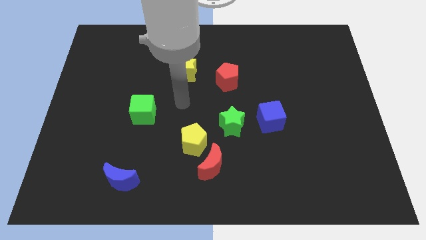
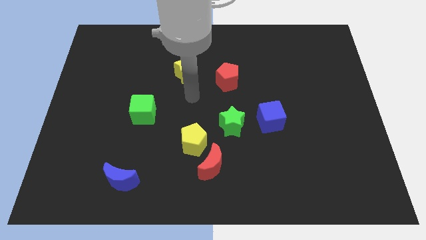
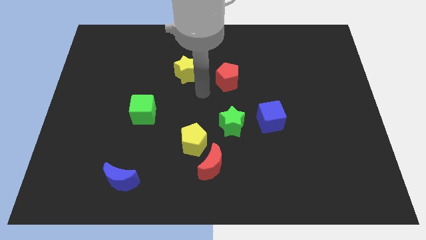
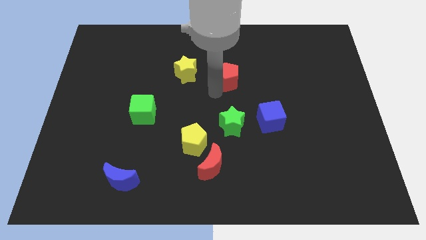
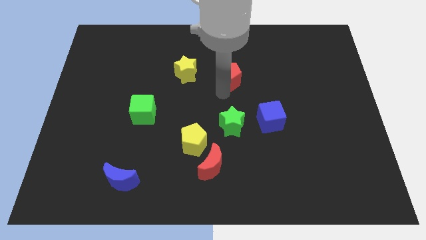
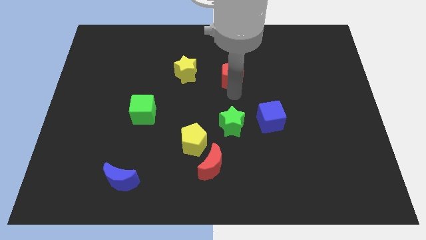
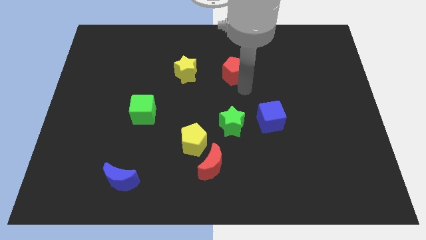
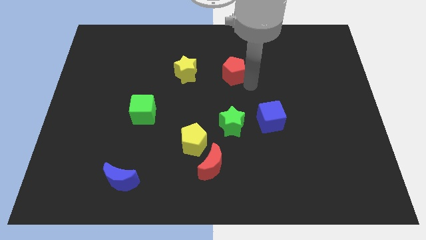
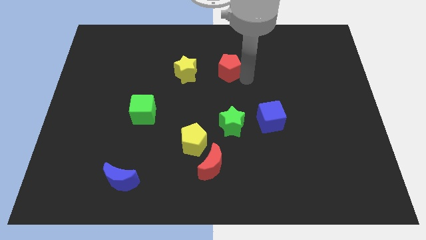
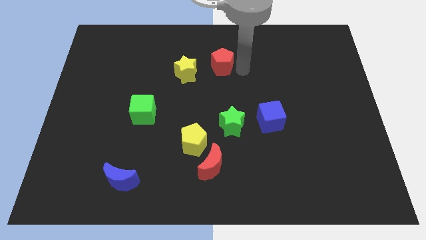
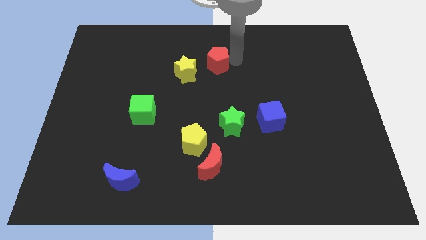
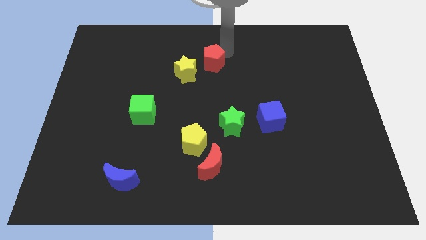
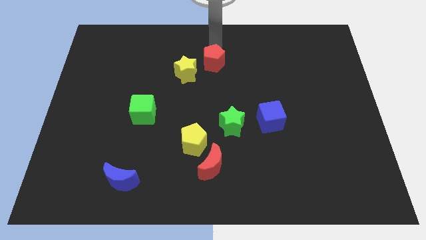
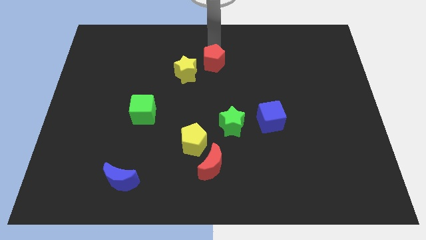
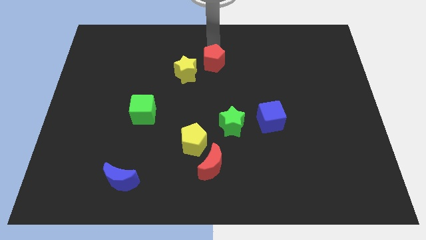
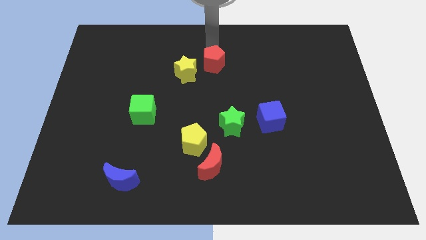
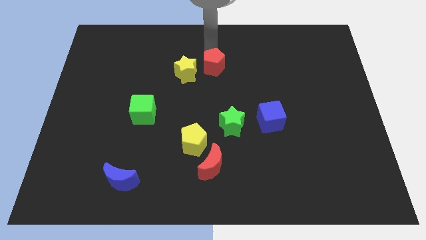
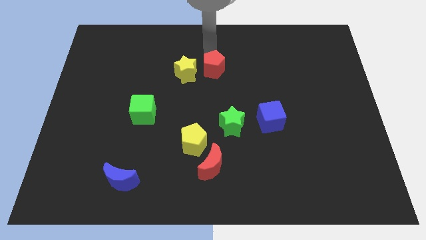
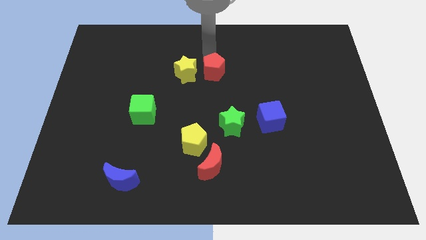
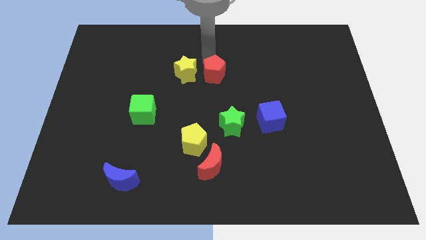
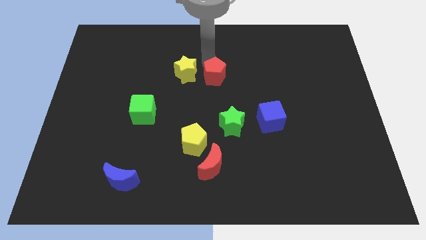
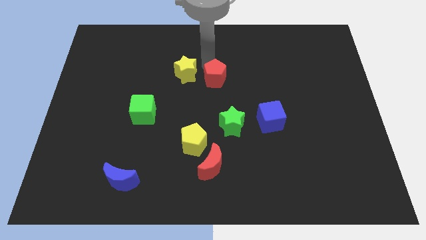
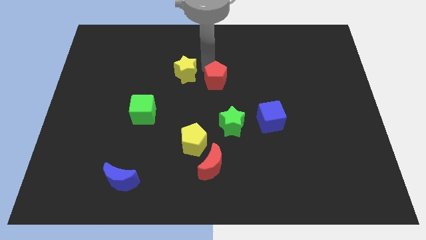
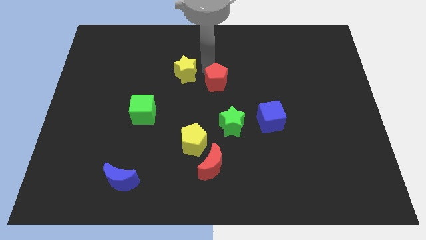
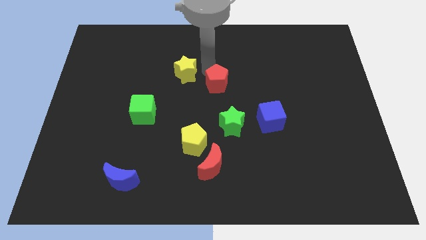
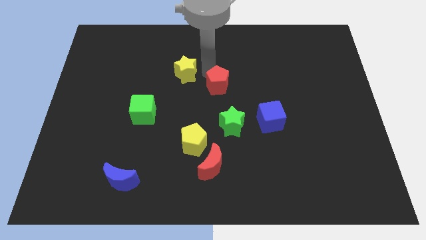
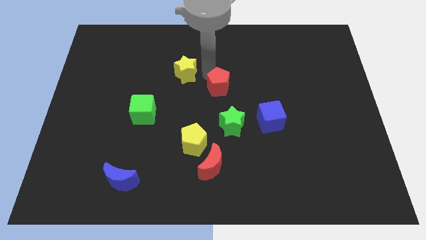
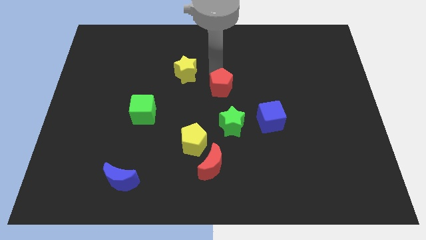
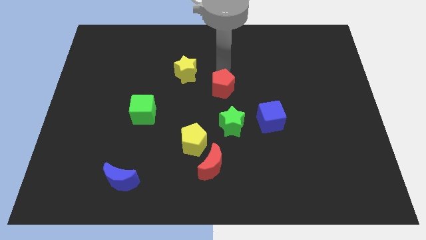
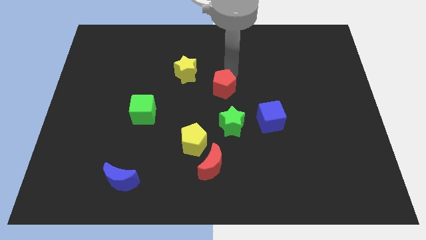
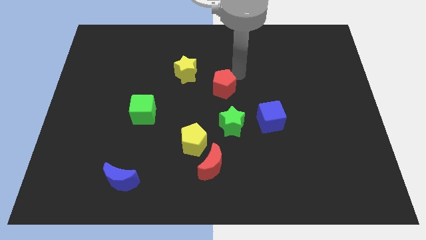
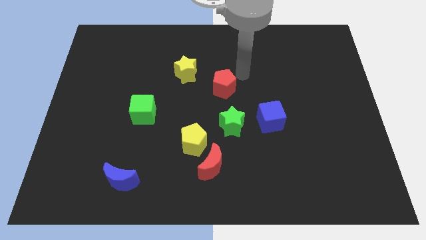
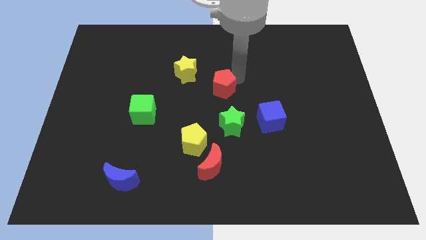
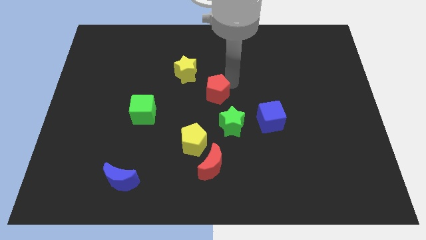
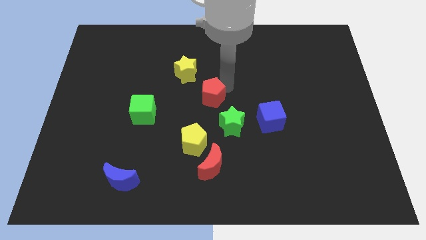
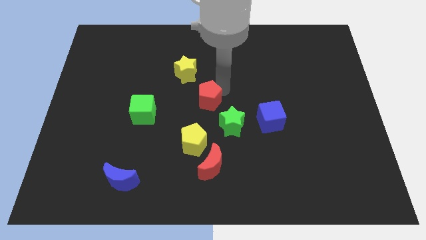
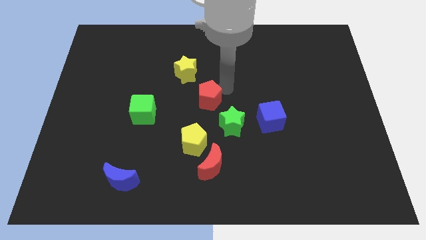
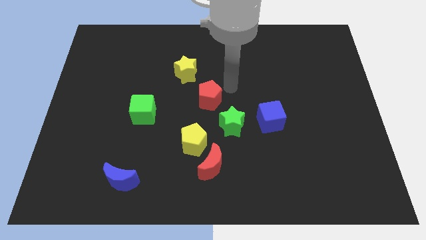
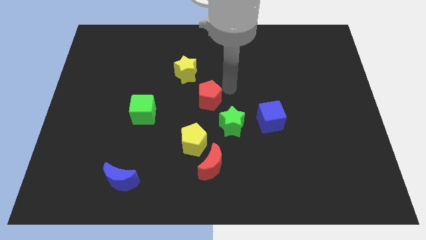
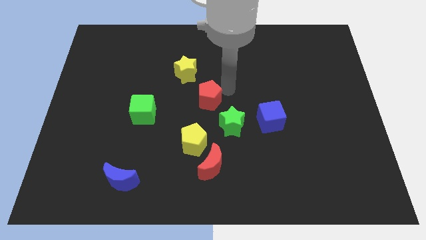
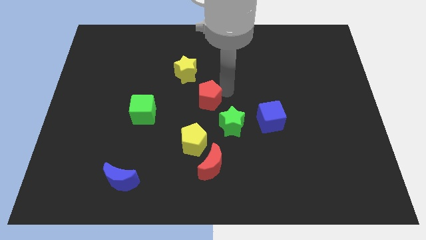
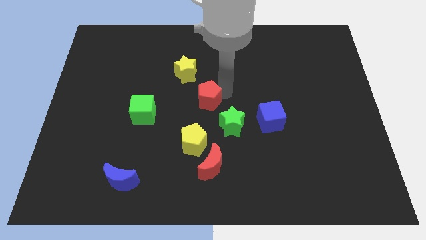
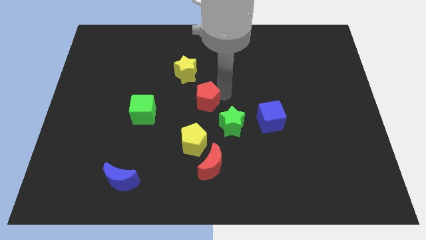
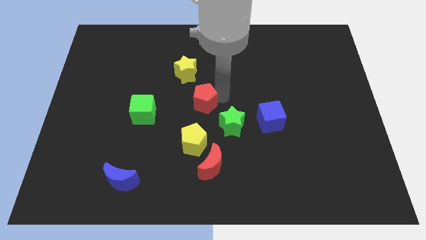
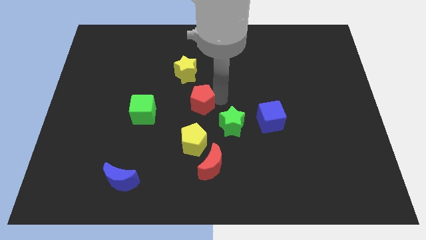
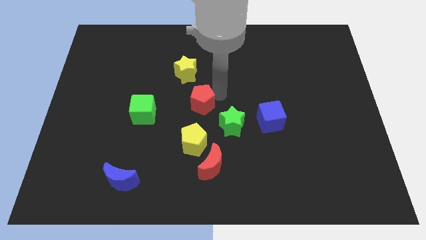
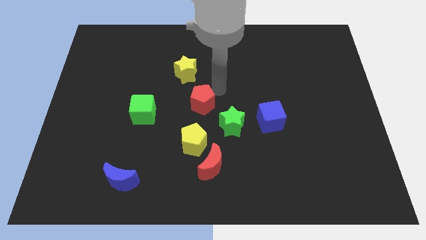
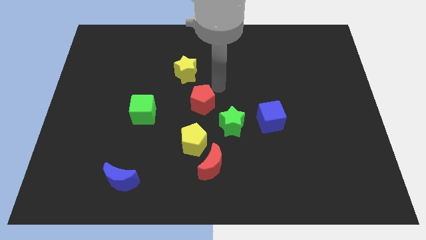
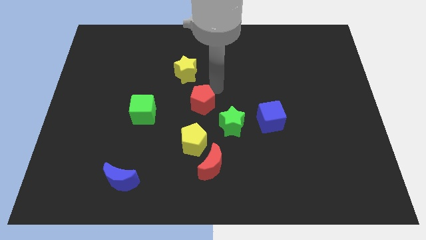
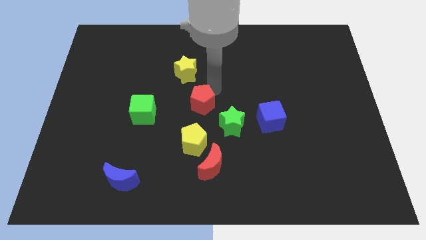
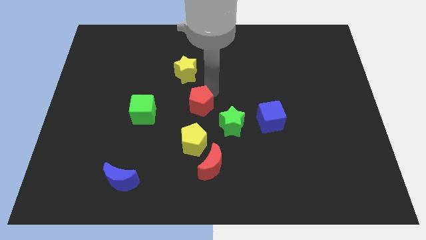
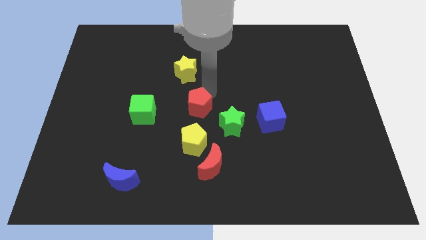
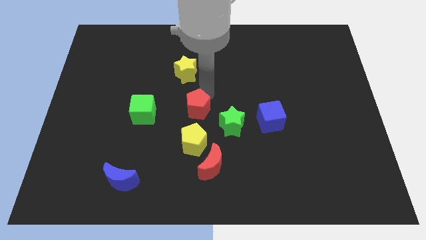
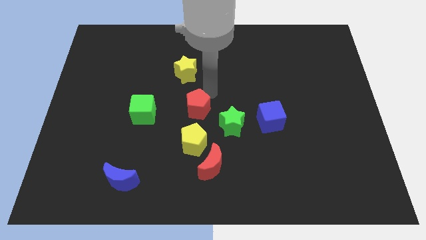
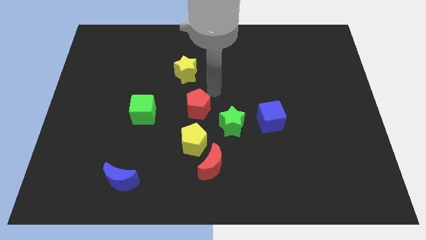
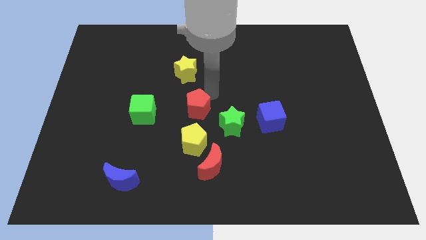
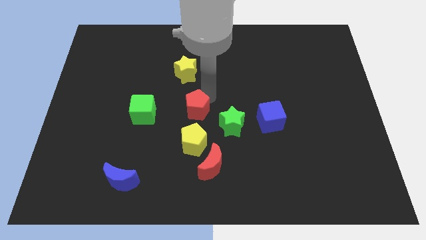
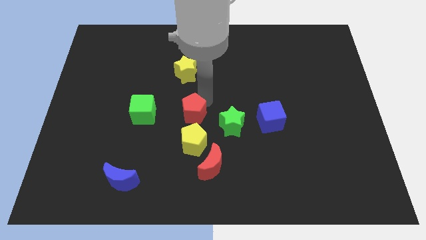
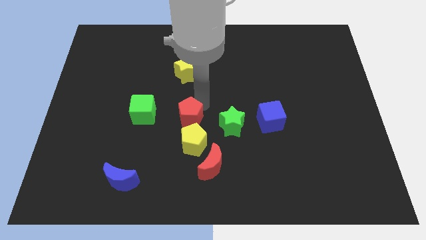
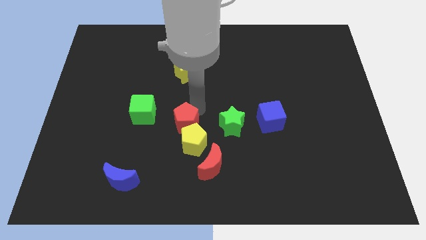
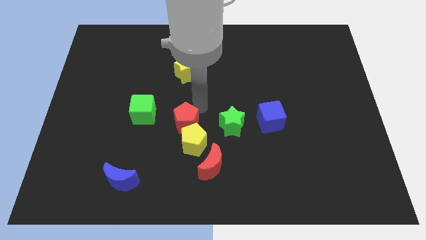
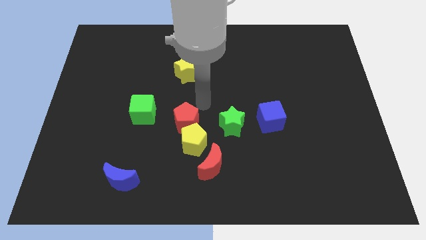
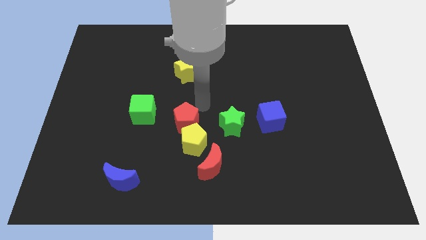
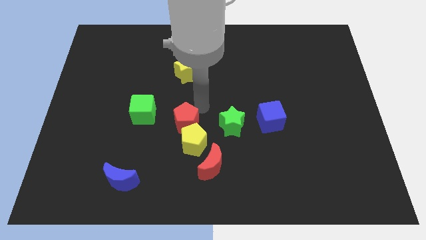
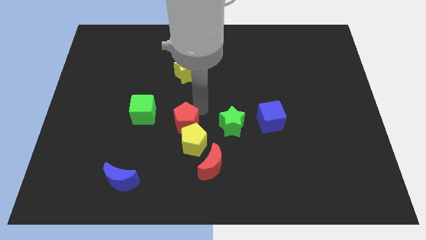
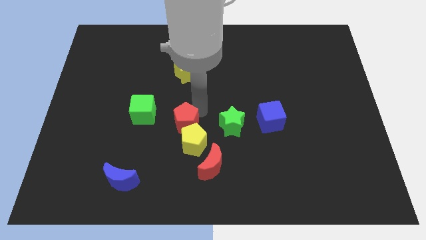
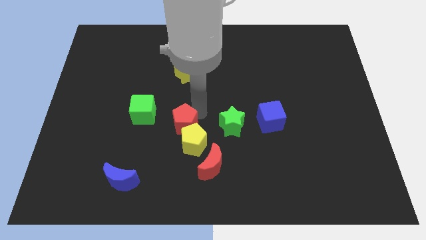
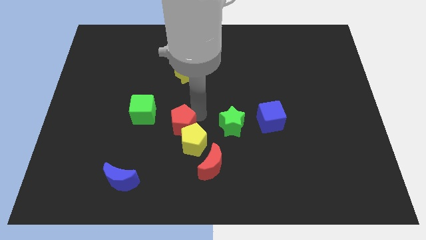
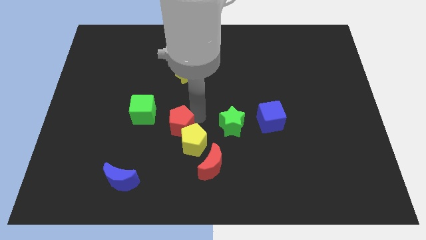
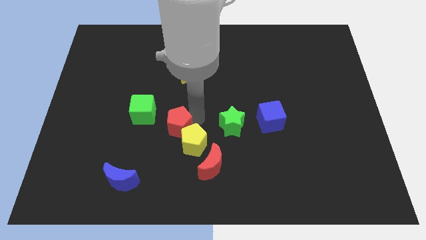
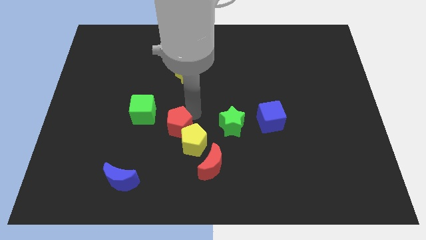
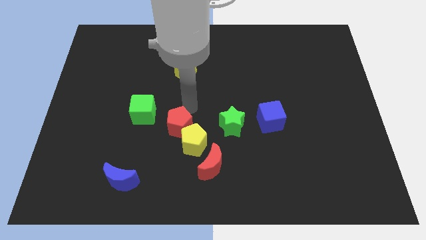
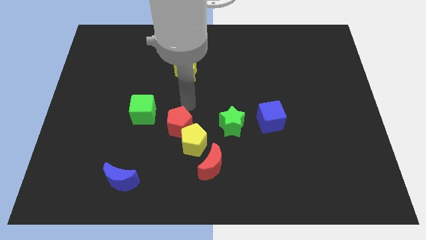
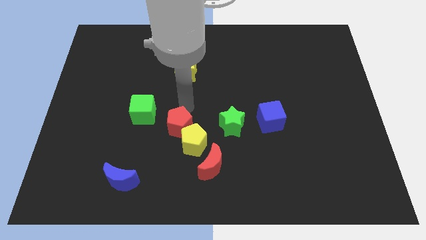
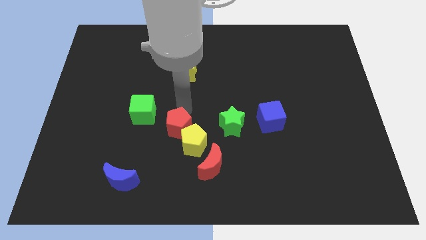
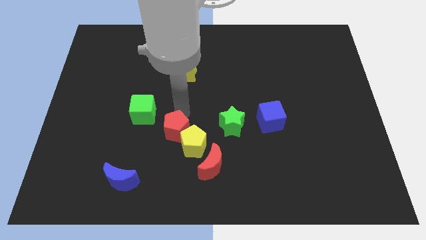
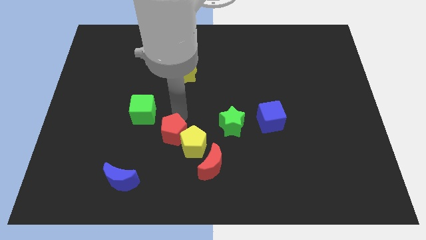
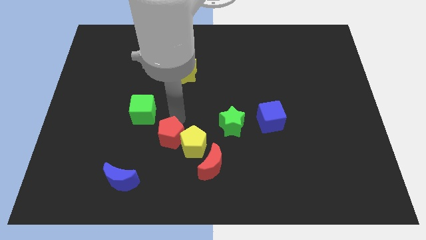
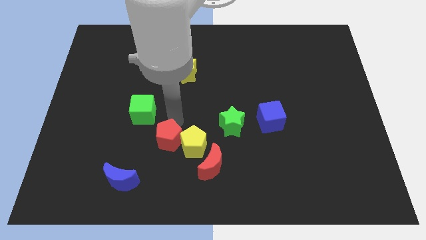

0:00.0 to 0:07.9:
slide the red pentagon diagonally down and to the left of the yellow pentagon
